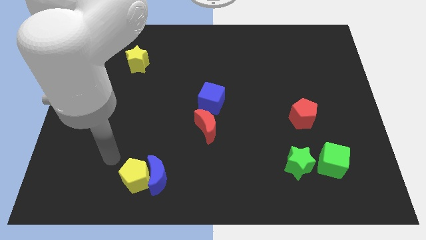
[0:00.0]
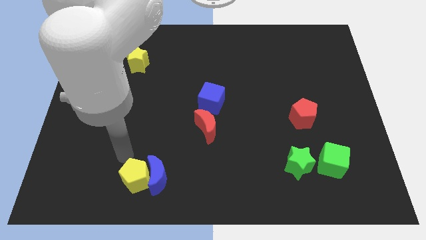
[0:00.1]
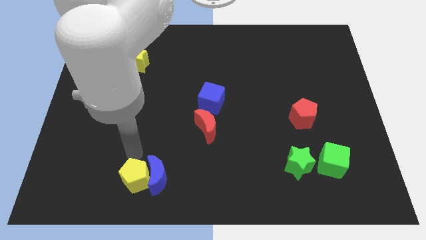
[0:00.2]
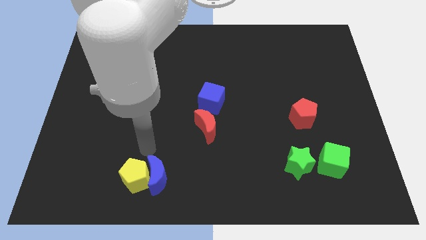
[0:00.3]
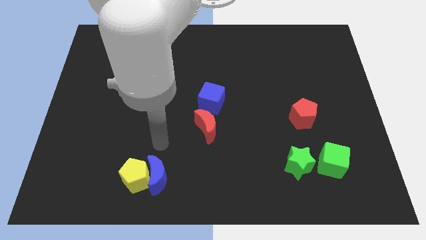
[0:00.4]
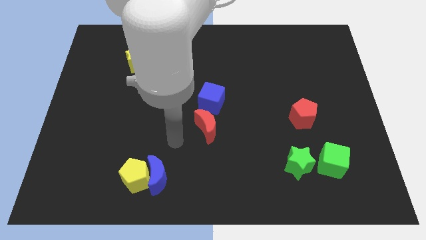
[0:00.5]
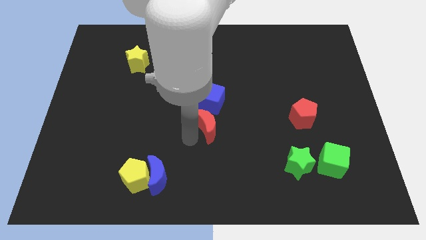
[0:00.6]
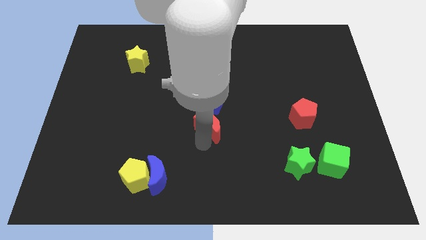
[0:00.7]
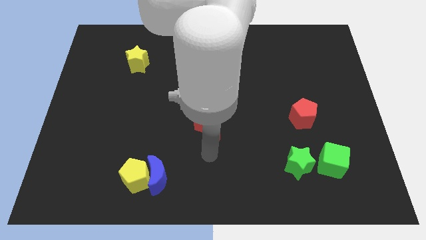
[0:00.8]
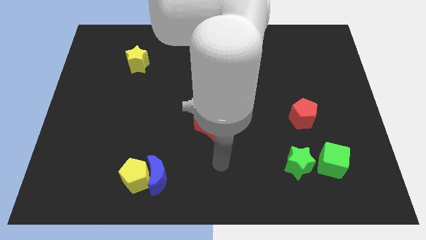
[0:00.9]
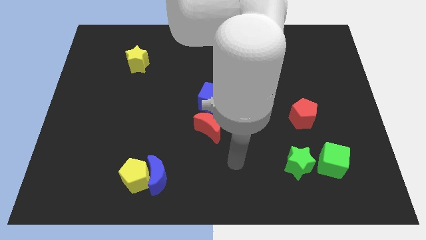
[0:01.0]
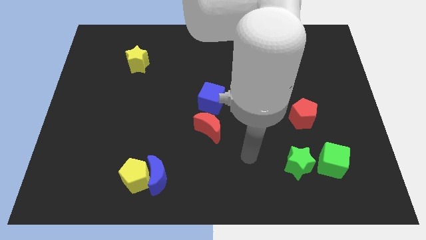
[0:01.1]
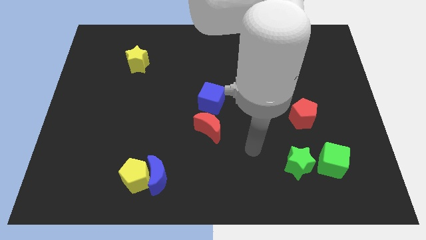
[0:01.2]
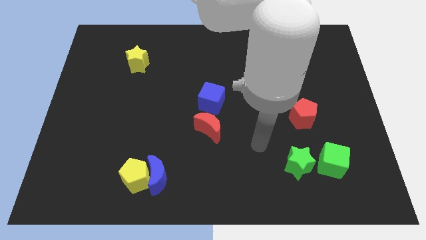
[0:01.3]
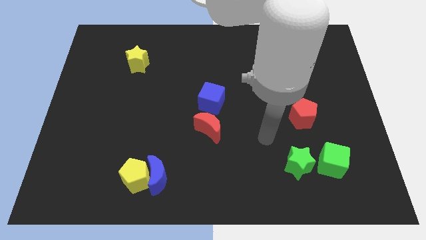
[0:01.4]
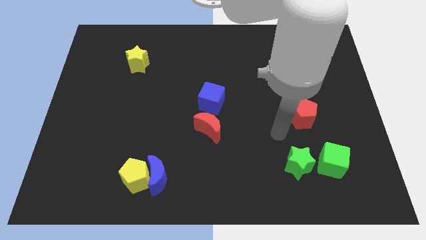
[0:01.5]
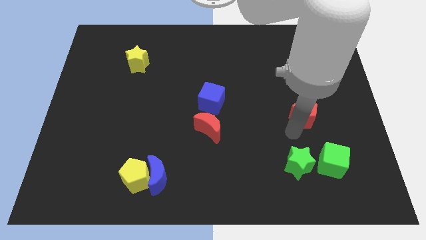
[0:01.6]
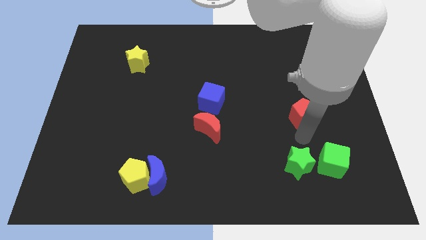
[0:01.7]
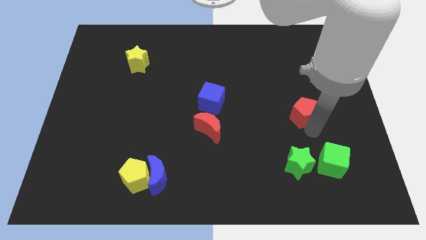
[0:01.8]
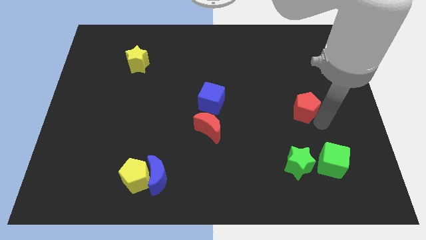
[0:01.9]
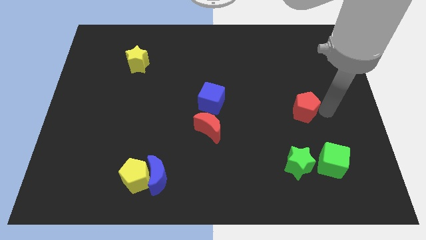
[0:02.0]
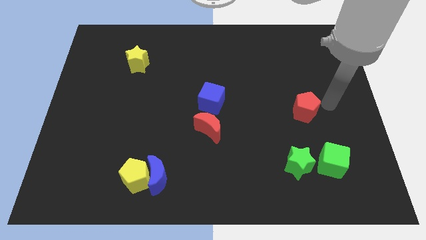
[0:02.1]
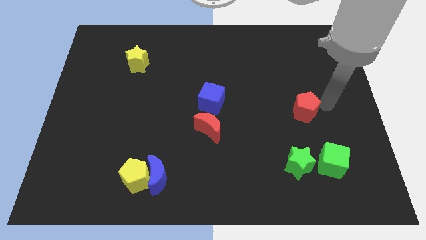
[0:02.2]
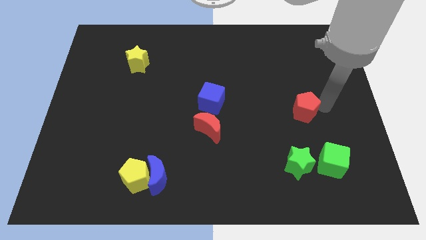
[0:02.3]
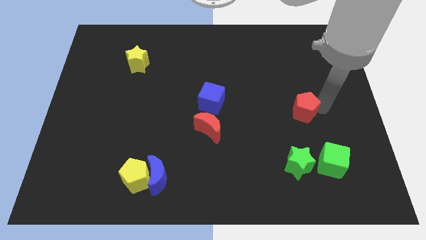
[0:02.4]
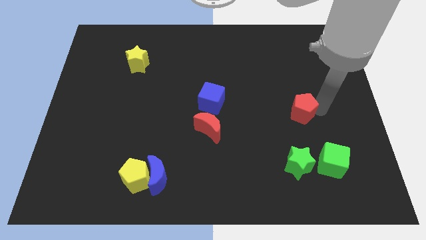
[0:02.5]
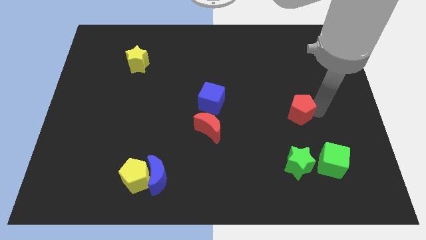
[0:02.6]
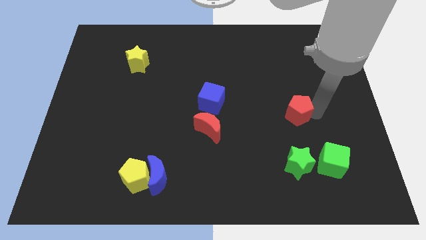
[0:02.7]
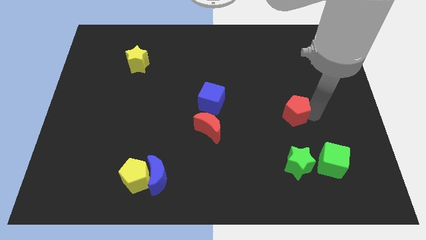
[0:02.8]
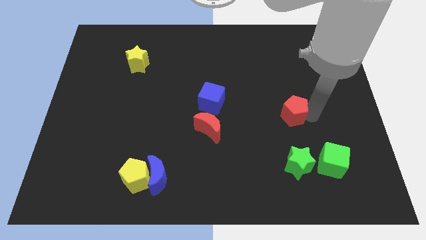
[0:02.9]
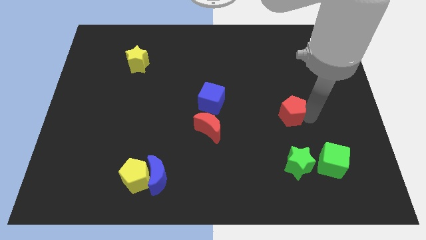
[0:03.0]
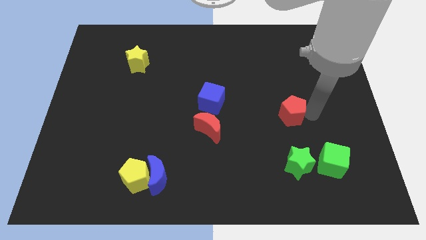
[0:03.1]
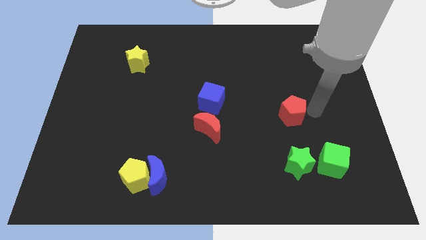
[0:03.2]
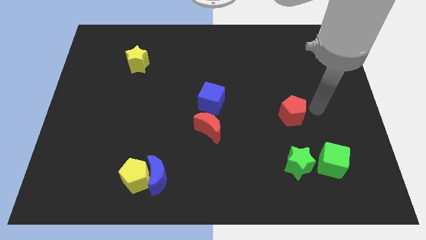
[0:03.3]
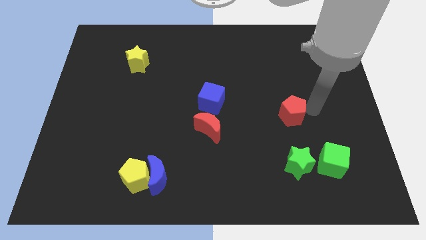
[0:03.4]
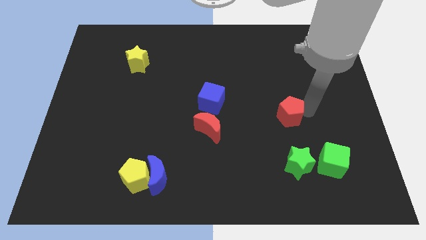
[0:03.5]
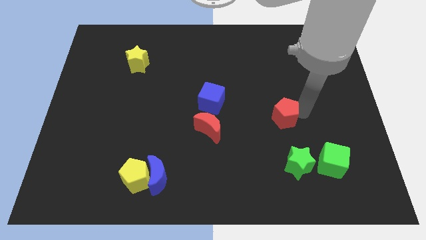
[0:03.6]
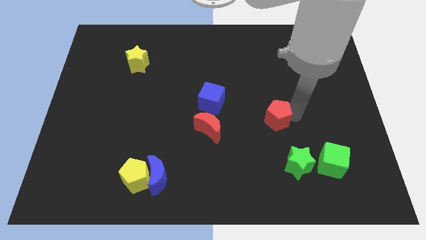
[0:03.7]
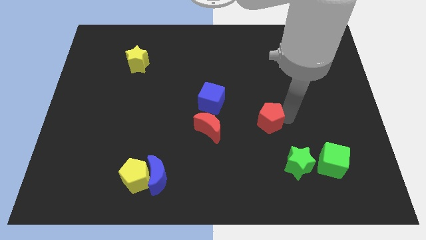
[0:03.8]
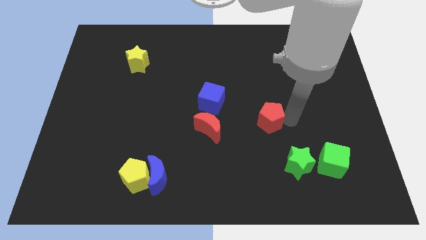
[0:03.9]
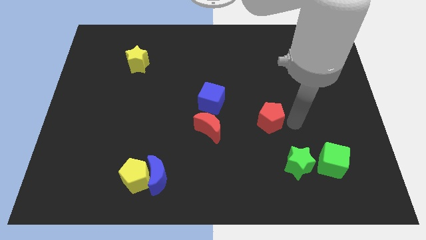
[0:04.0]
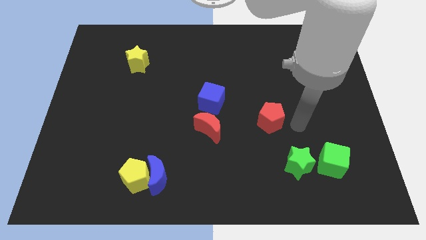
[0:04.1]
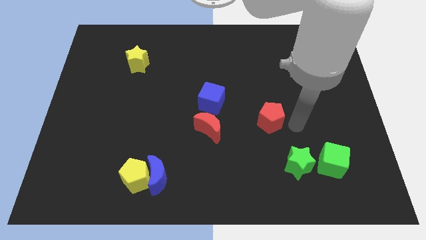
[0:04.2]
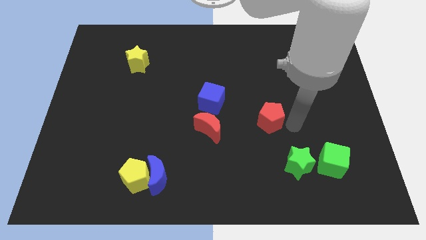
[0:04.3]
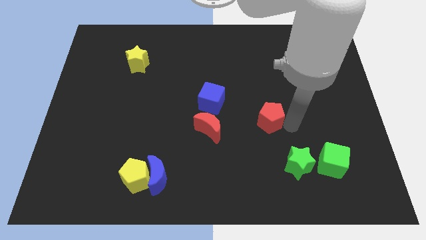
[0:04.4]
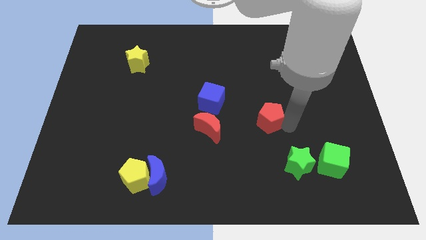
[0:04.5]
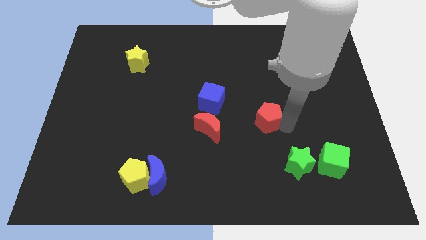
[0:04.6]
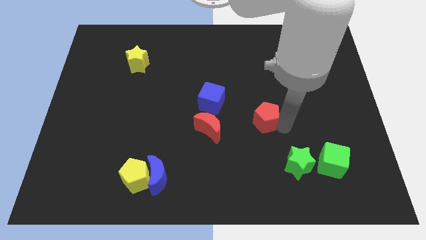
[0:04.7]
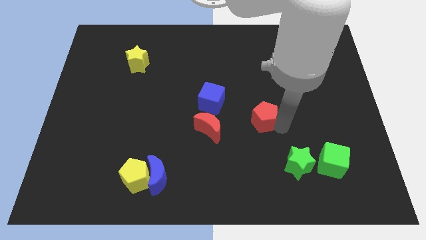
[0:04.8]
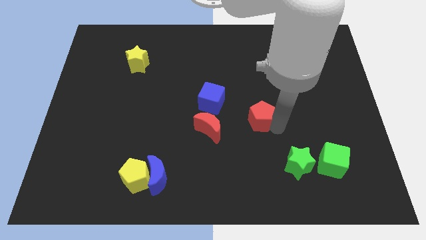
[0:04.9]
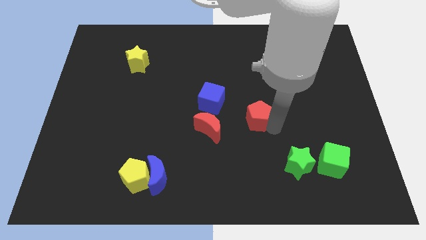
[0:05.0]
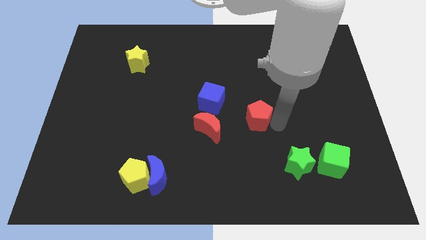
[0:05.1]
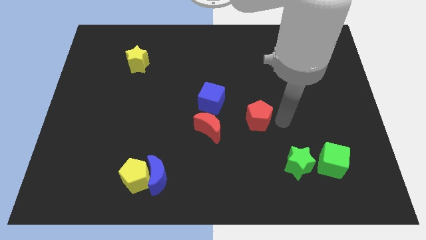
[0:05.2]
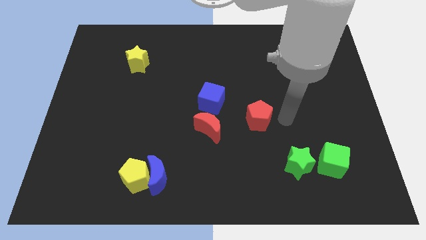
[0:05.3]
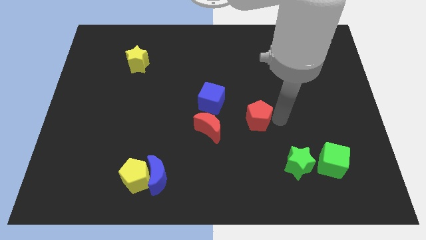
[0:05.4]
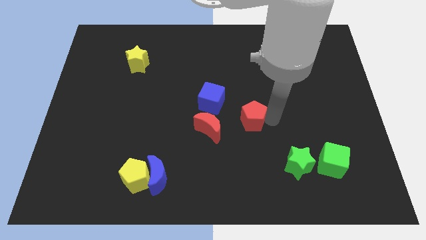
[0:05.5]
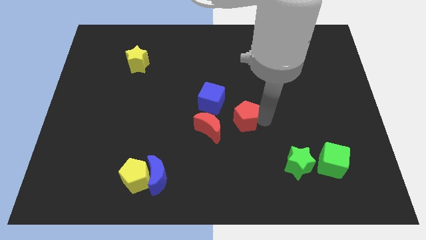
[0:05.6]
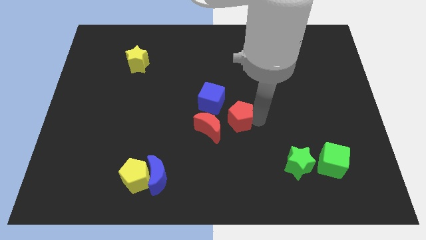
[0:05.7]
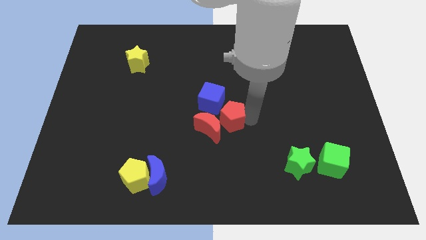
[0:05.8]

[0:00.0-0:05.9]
move the red pentagon towards the red moon
